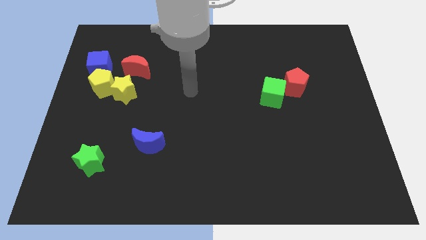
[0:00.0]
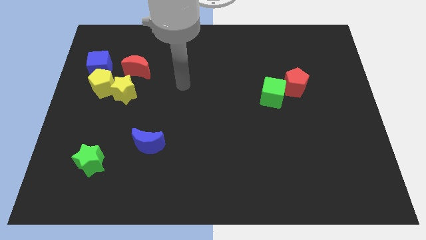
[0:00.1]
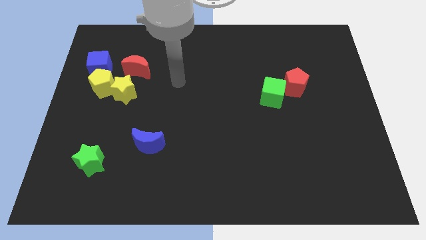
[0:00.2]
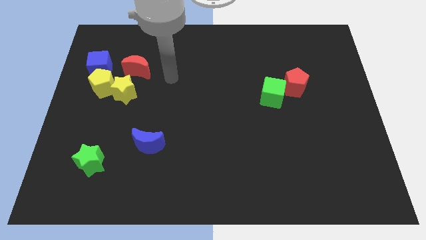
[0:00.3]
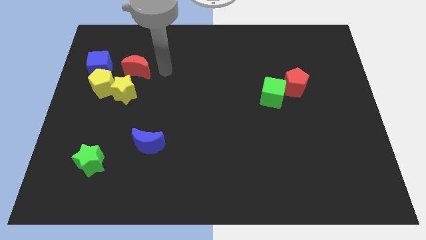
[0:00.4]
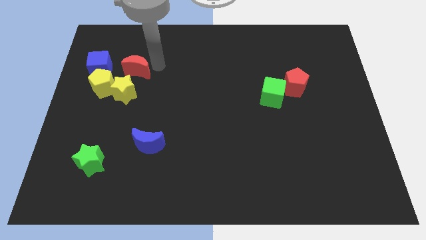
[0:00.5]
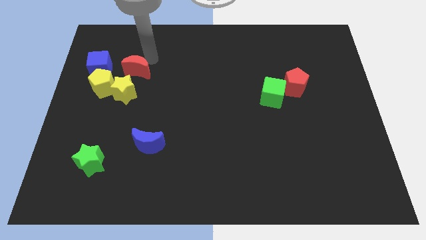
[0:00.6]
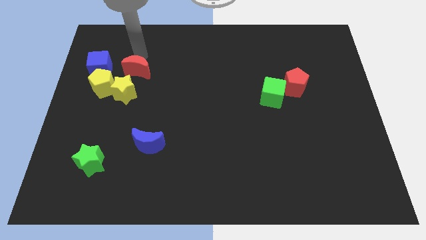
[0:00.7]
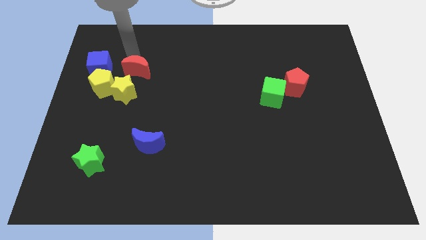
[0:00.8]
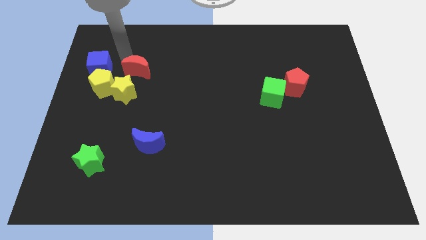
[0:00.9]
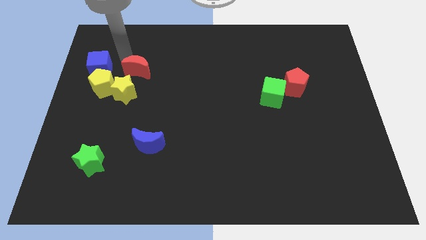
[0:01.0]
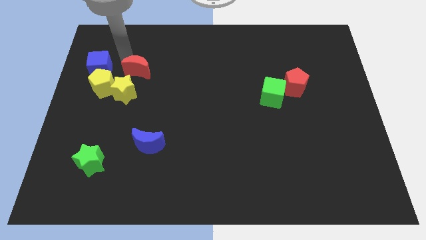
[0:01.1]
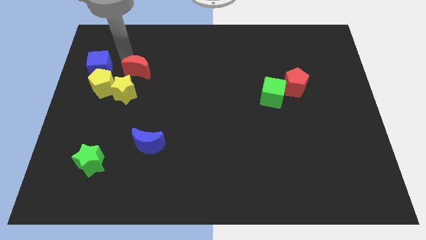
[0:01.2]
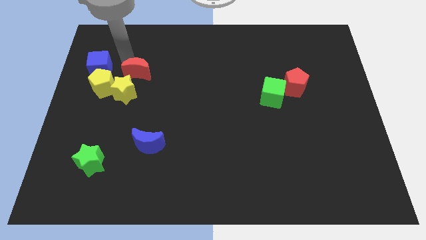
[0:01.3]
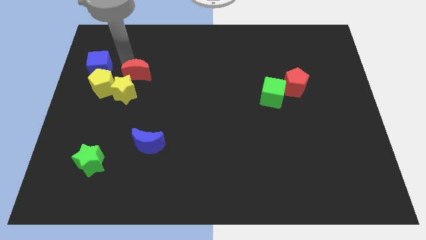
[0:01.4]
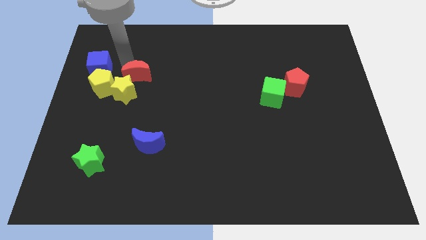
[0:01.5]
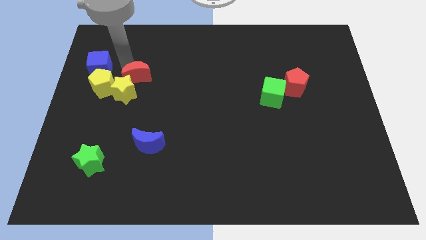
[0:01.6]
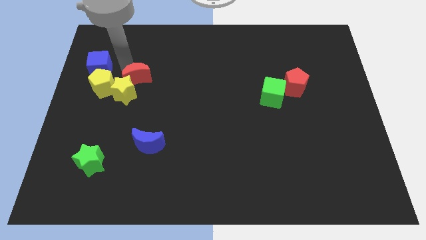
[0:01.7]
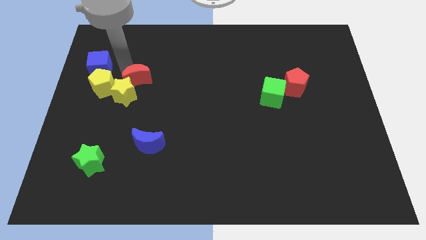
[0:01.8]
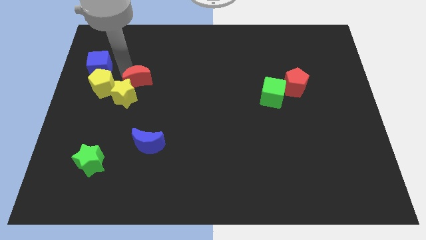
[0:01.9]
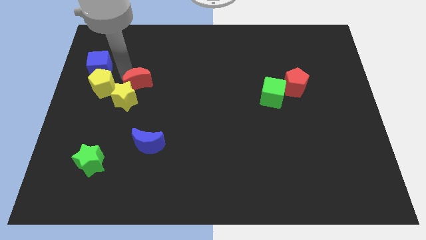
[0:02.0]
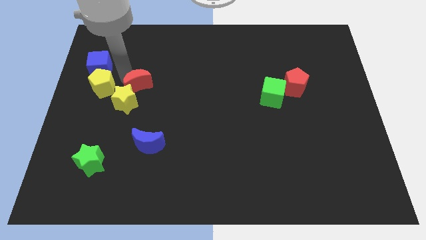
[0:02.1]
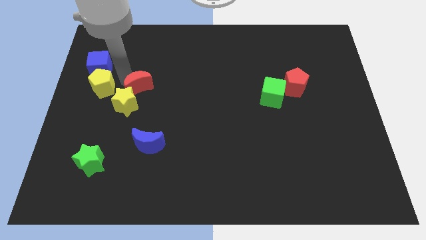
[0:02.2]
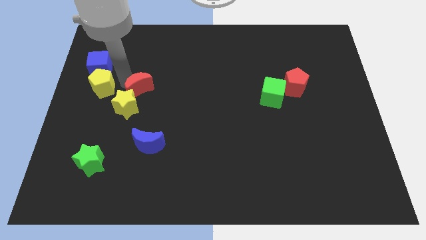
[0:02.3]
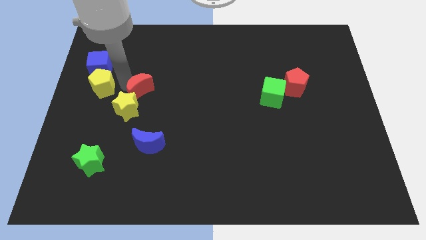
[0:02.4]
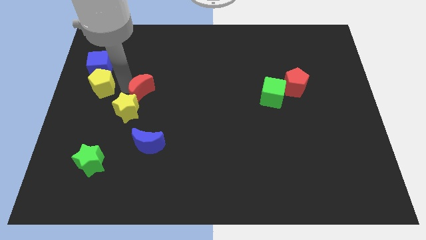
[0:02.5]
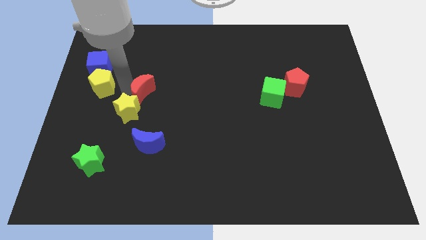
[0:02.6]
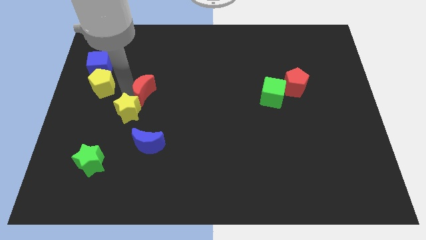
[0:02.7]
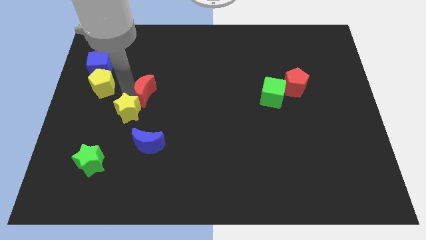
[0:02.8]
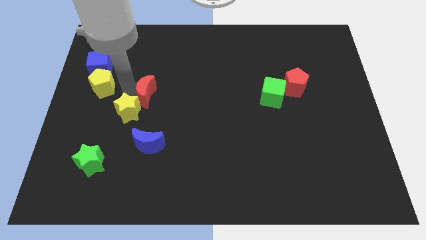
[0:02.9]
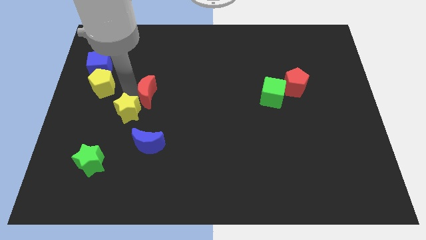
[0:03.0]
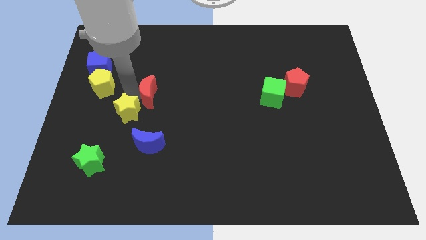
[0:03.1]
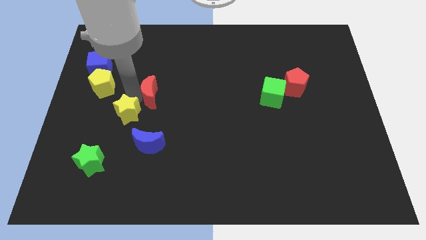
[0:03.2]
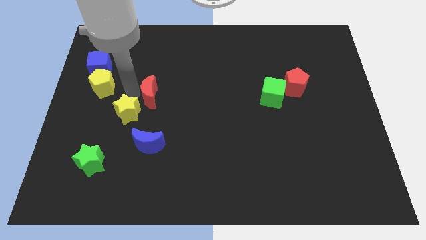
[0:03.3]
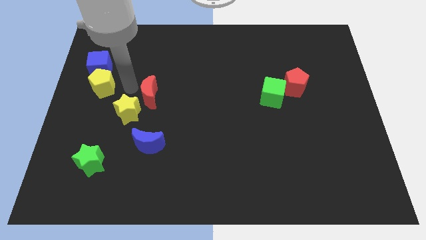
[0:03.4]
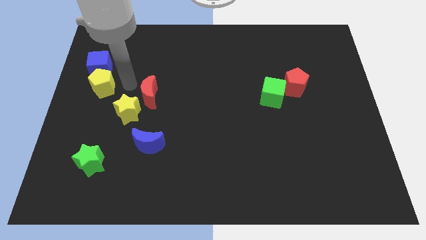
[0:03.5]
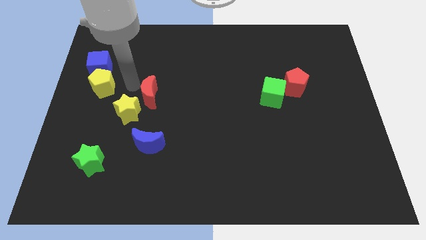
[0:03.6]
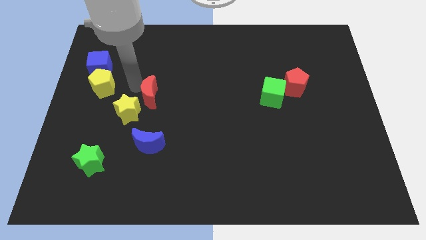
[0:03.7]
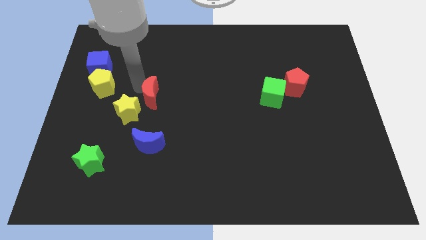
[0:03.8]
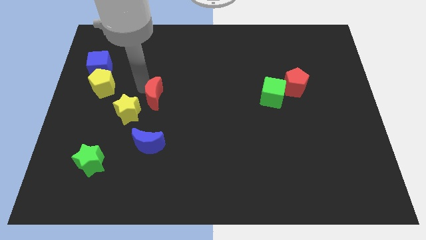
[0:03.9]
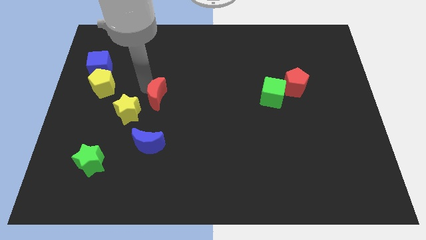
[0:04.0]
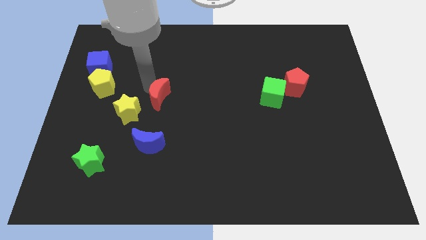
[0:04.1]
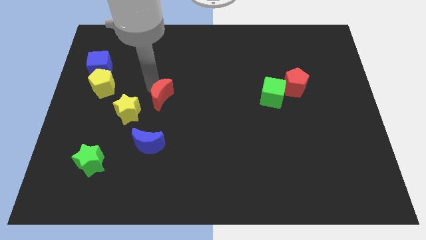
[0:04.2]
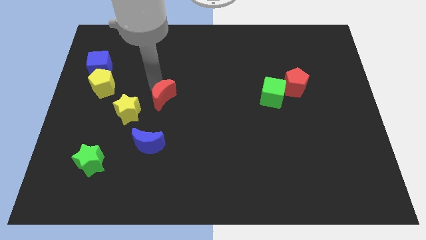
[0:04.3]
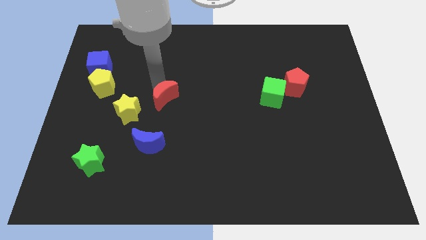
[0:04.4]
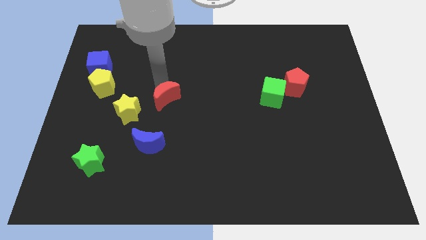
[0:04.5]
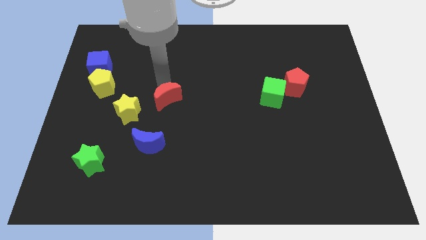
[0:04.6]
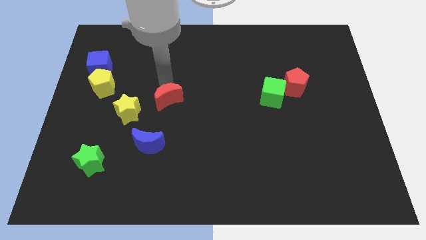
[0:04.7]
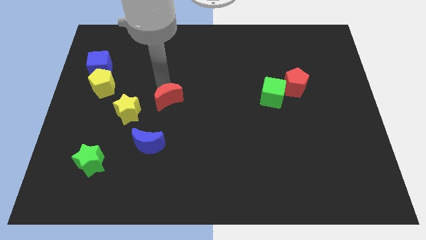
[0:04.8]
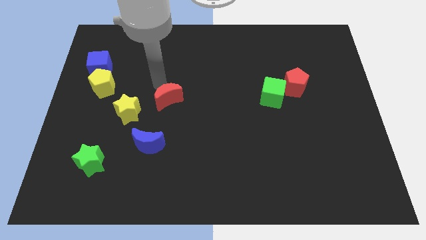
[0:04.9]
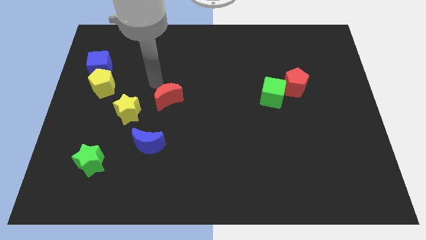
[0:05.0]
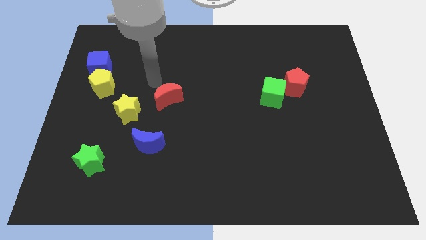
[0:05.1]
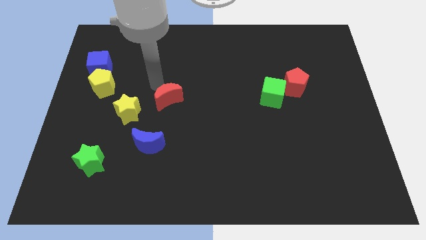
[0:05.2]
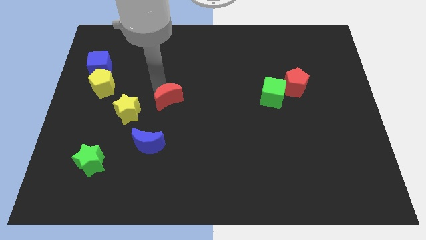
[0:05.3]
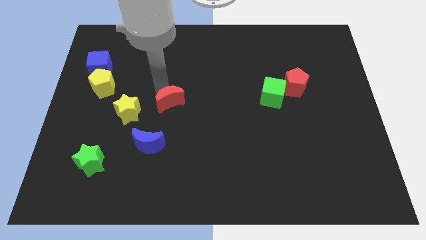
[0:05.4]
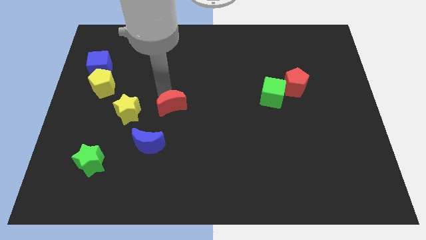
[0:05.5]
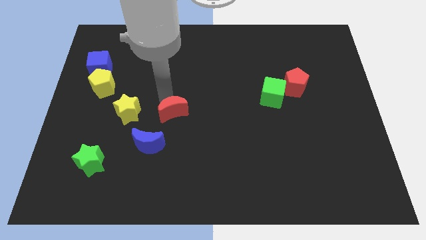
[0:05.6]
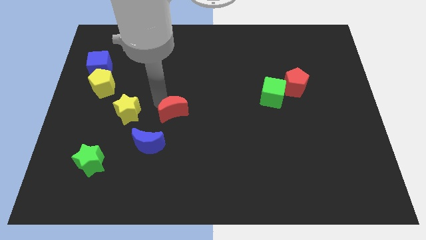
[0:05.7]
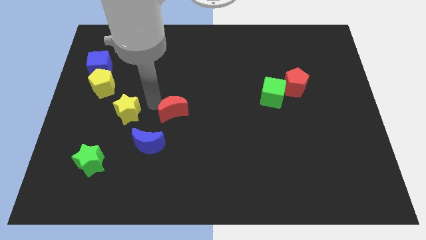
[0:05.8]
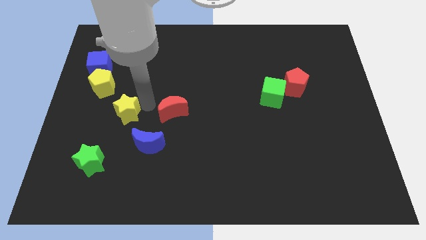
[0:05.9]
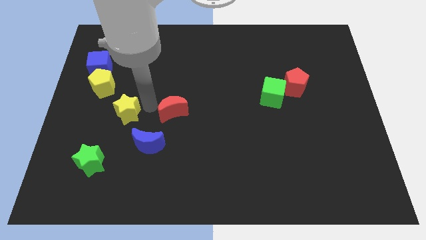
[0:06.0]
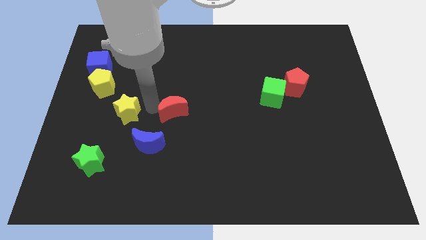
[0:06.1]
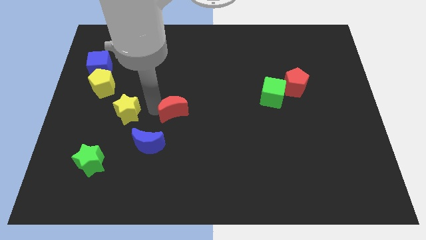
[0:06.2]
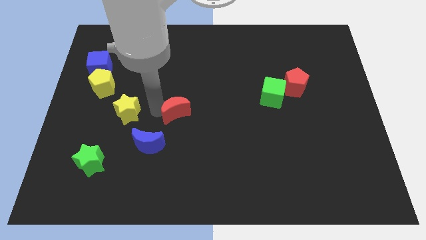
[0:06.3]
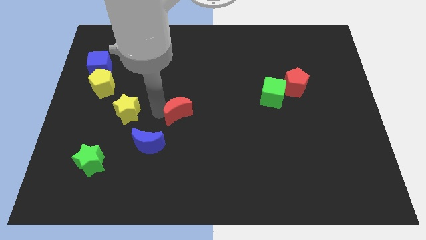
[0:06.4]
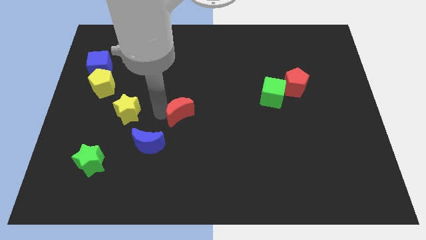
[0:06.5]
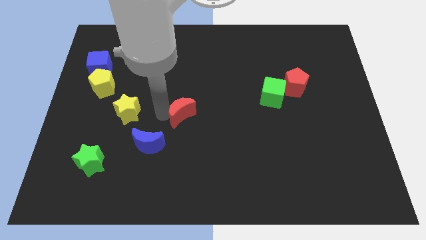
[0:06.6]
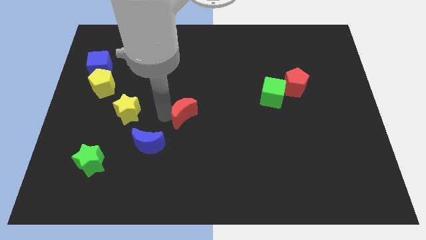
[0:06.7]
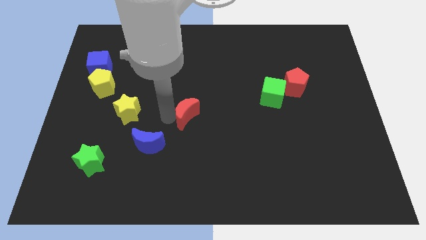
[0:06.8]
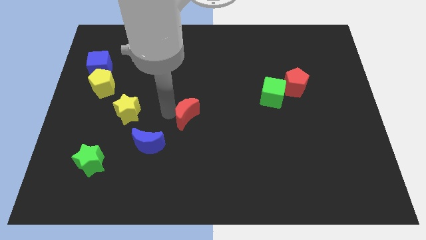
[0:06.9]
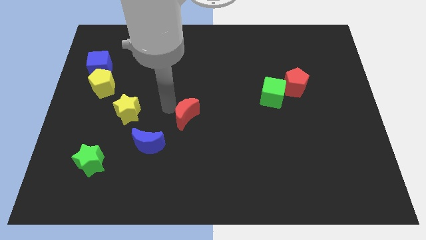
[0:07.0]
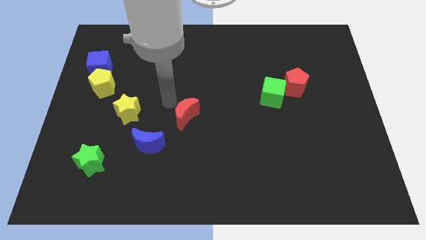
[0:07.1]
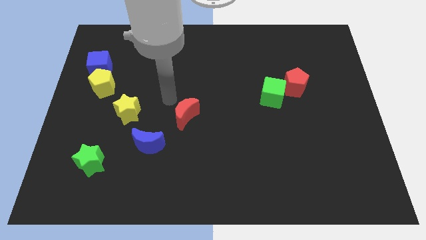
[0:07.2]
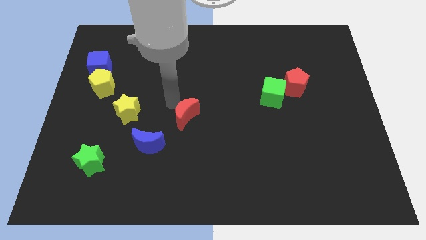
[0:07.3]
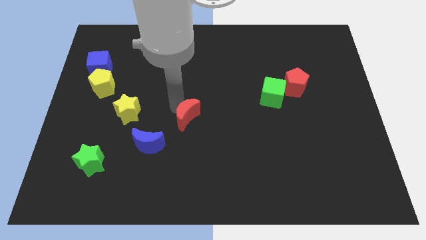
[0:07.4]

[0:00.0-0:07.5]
push the red moon downwards and then to the right

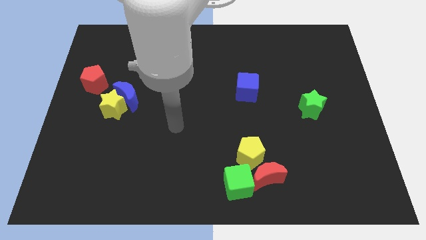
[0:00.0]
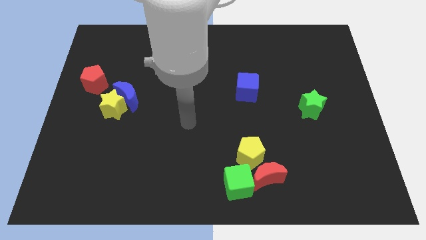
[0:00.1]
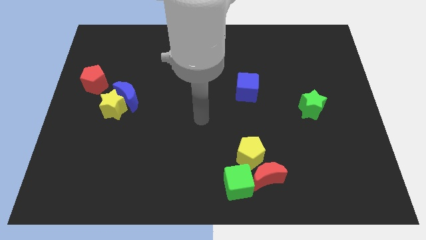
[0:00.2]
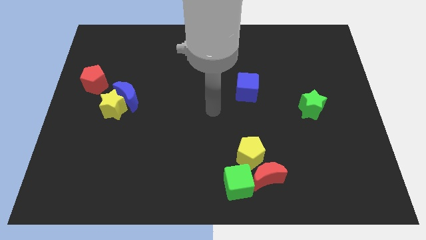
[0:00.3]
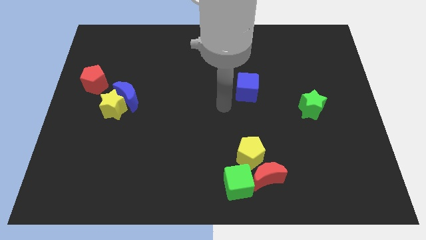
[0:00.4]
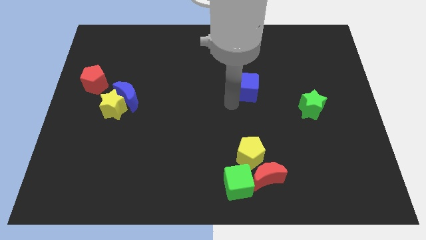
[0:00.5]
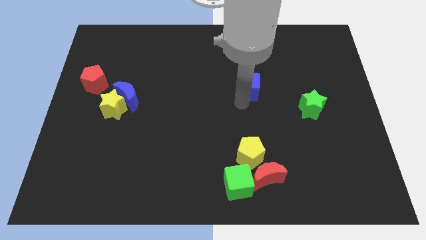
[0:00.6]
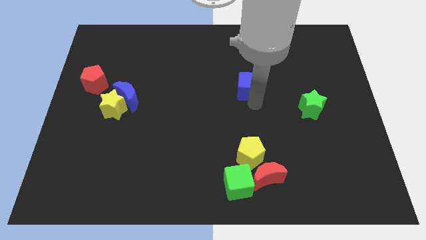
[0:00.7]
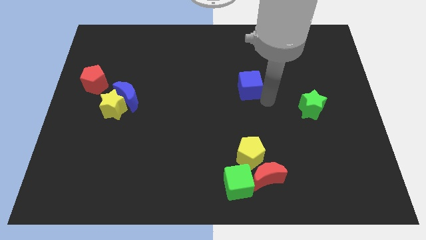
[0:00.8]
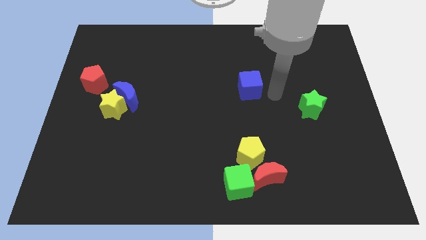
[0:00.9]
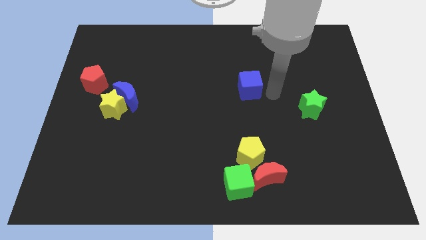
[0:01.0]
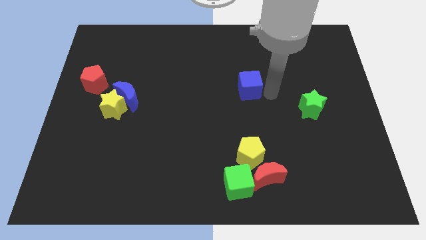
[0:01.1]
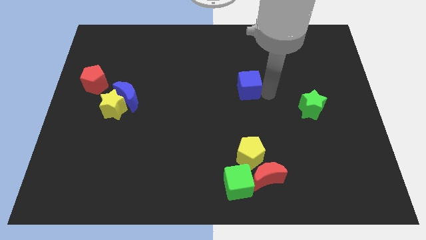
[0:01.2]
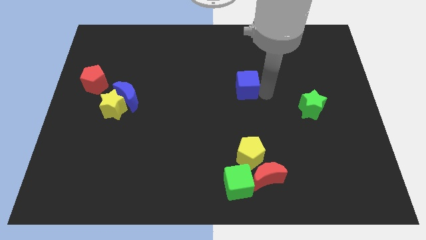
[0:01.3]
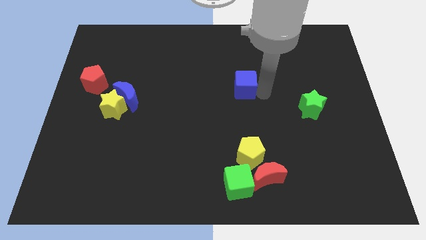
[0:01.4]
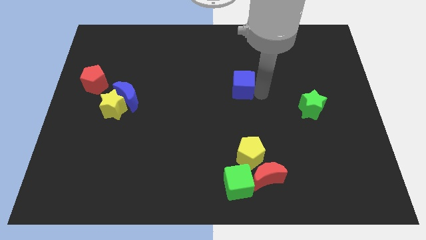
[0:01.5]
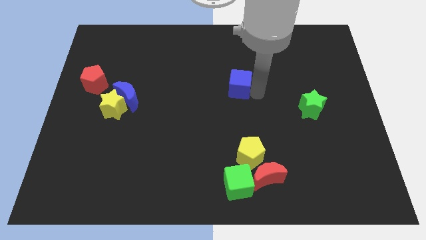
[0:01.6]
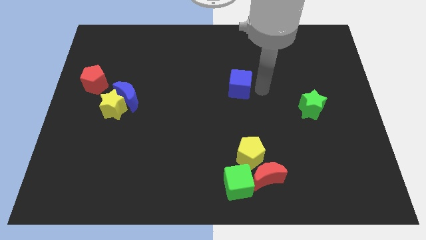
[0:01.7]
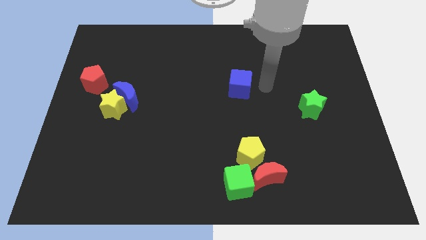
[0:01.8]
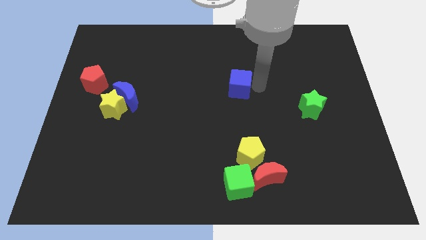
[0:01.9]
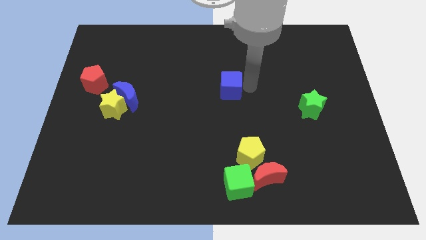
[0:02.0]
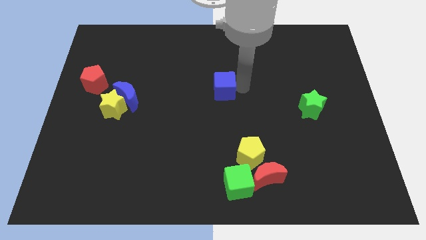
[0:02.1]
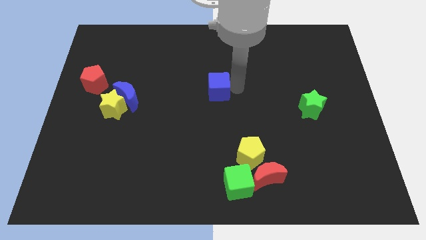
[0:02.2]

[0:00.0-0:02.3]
slightly push the blue cube to the left
